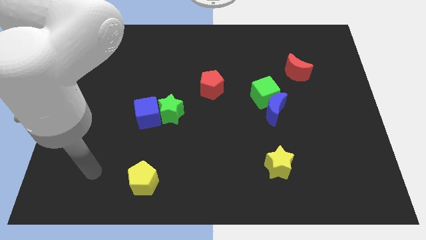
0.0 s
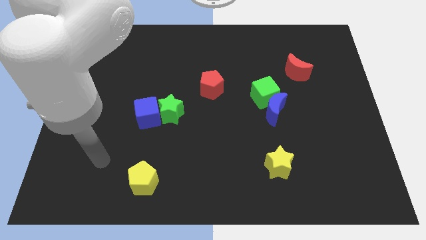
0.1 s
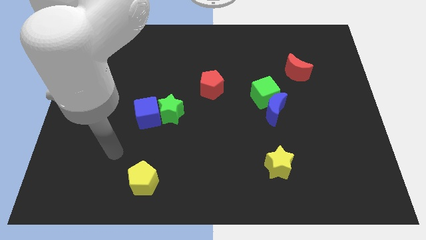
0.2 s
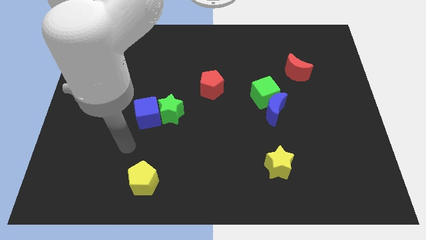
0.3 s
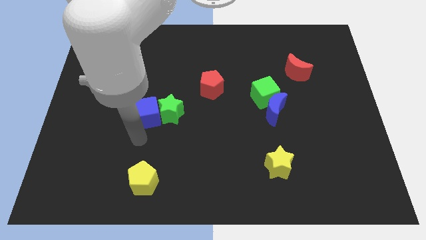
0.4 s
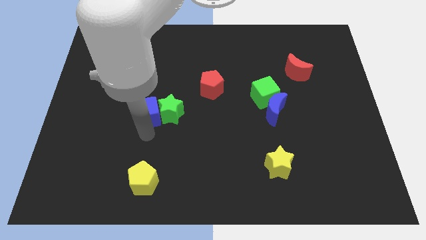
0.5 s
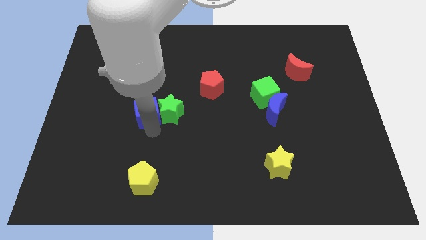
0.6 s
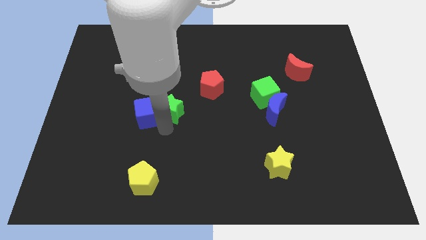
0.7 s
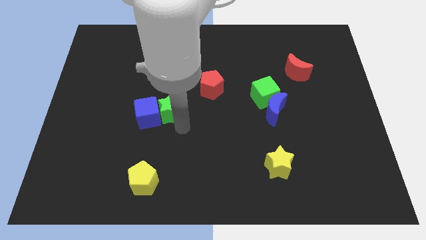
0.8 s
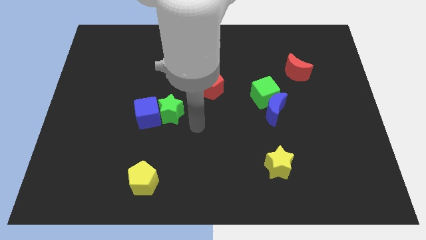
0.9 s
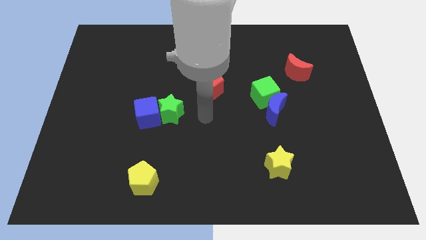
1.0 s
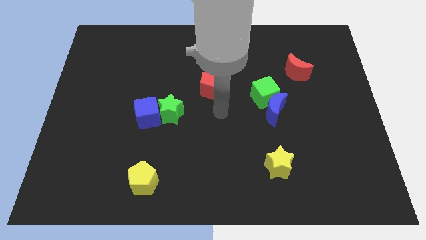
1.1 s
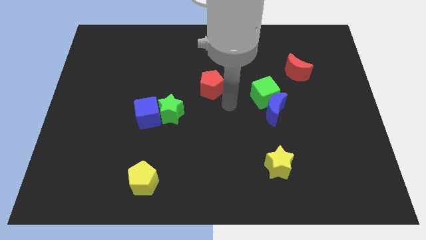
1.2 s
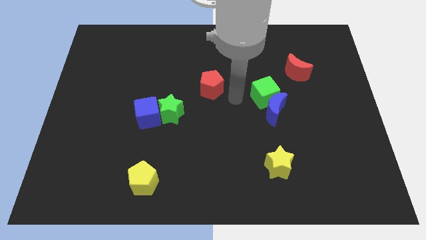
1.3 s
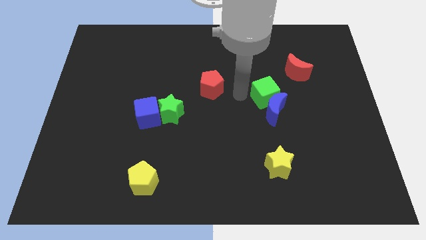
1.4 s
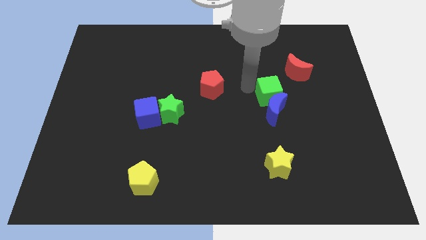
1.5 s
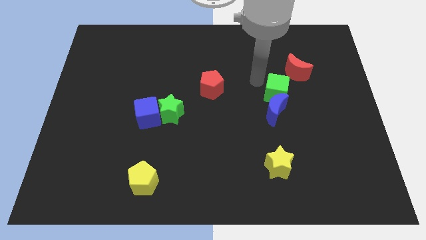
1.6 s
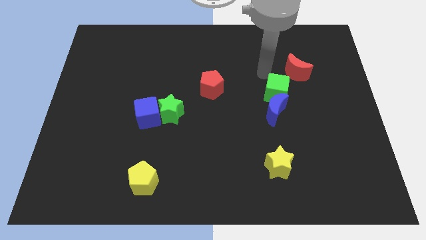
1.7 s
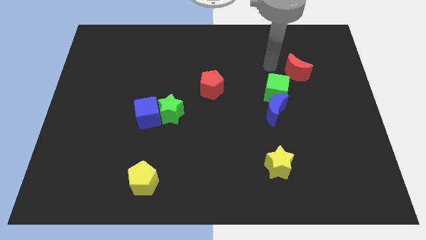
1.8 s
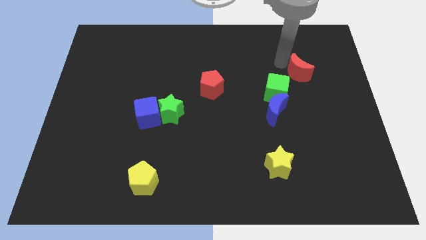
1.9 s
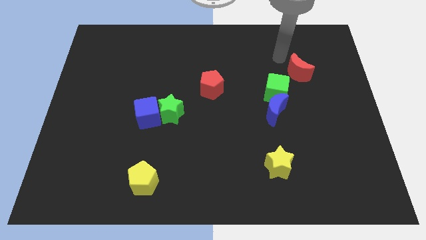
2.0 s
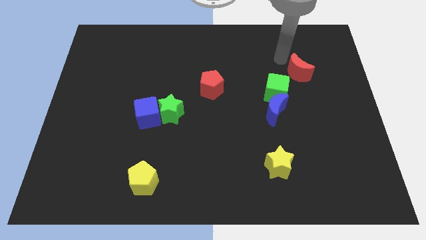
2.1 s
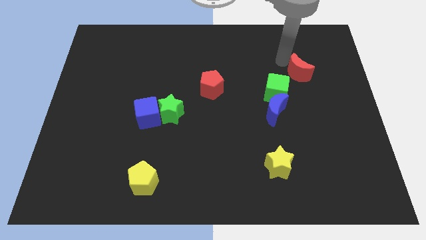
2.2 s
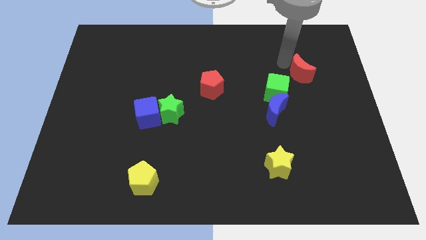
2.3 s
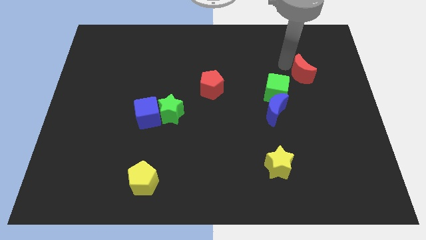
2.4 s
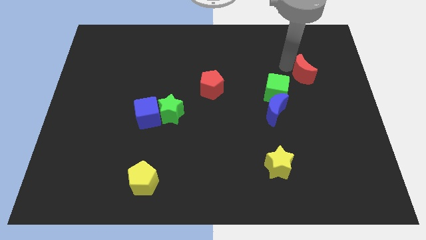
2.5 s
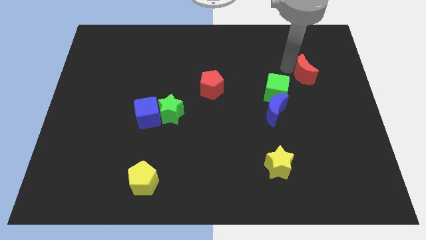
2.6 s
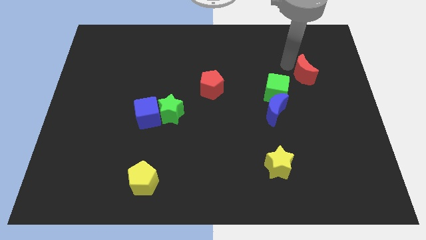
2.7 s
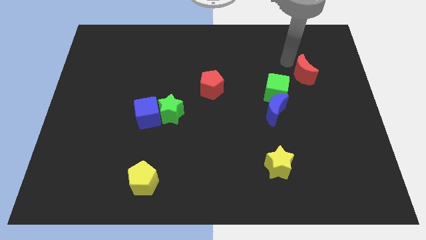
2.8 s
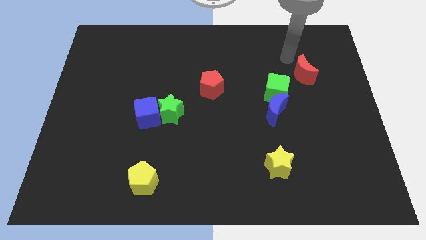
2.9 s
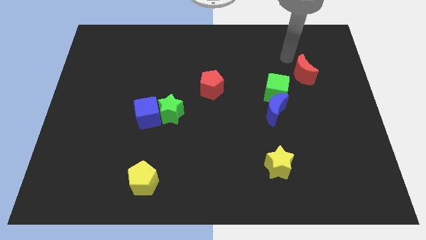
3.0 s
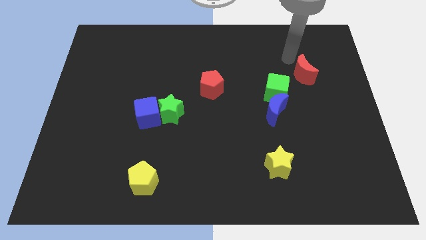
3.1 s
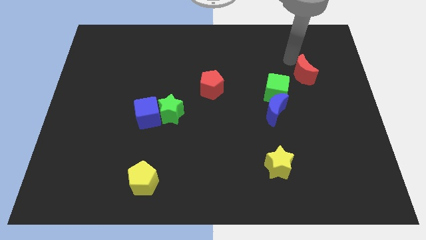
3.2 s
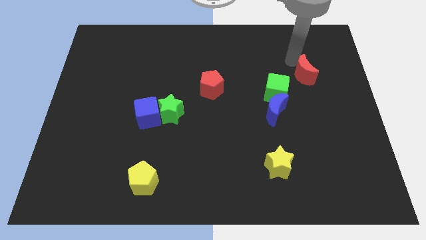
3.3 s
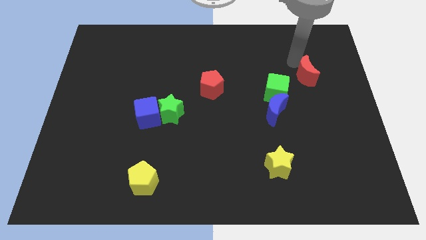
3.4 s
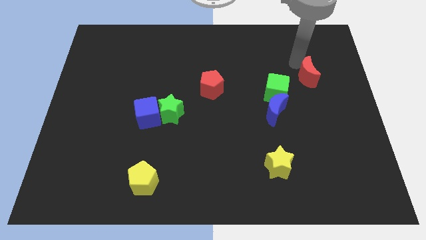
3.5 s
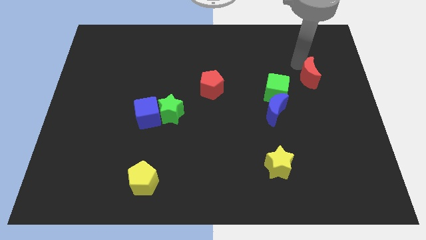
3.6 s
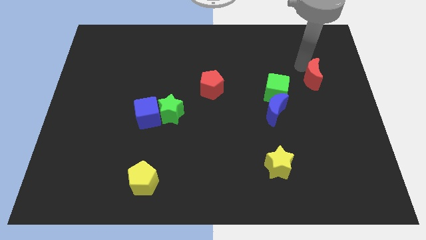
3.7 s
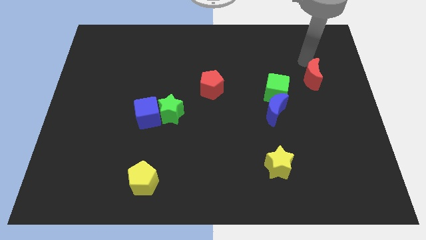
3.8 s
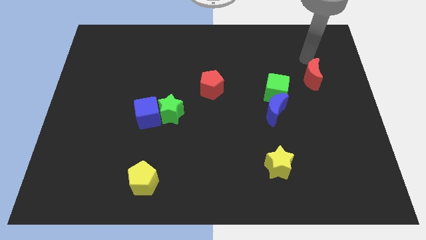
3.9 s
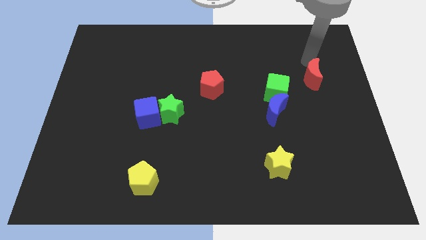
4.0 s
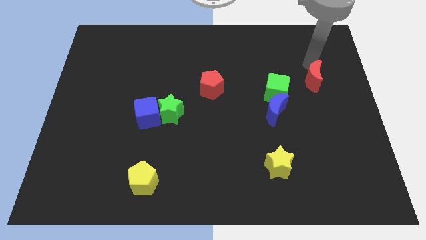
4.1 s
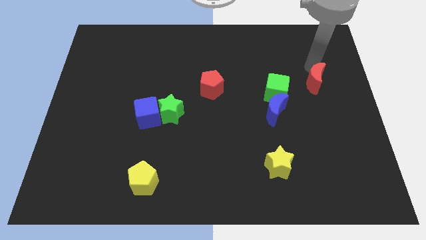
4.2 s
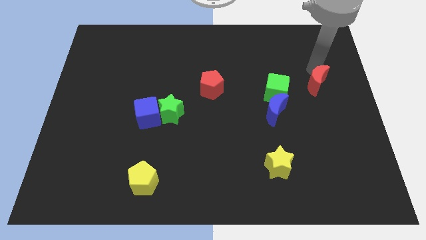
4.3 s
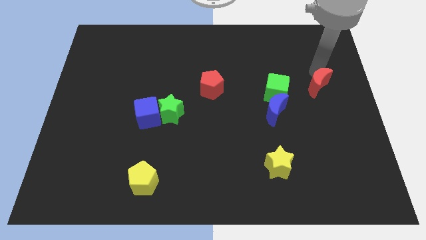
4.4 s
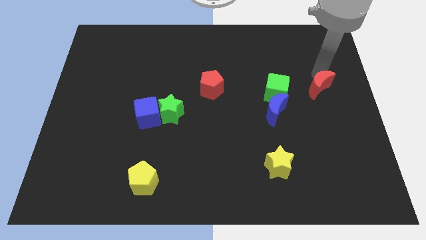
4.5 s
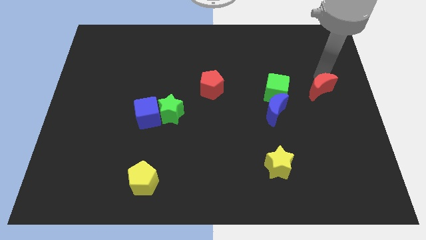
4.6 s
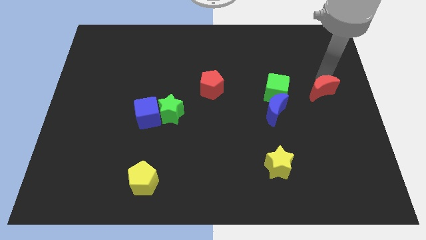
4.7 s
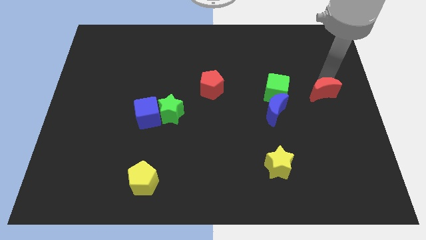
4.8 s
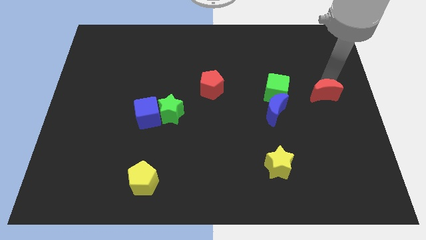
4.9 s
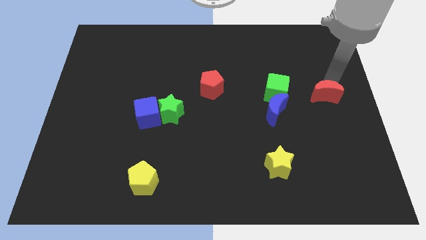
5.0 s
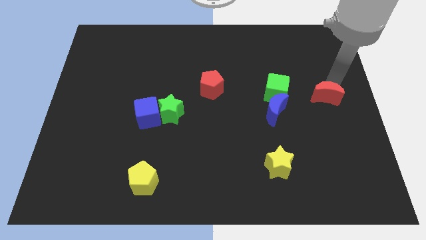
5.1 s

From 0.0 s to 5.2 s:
push the red moon just right of the blue moon

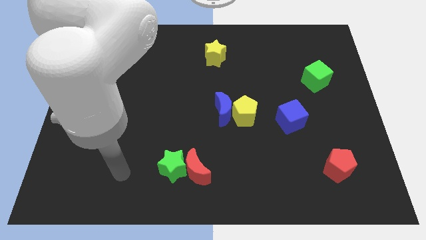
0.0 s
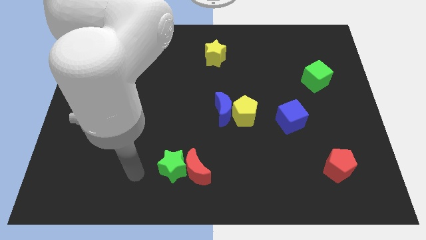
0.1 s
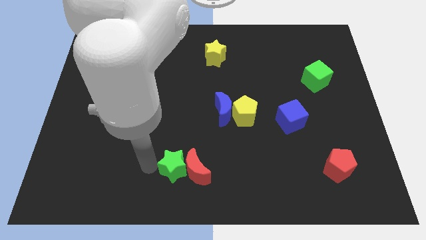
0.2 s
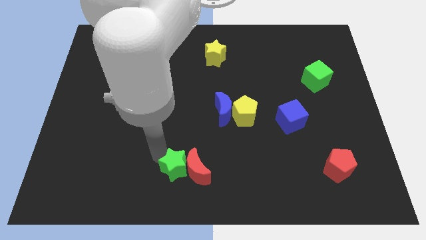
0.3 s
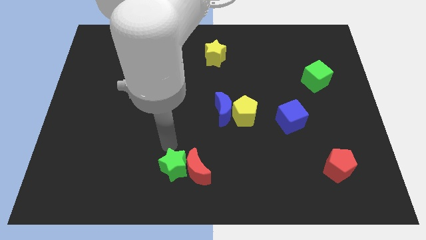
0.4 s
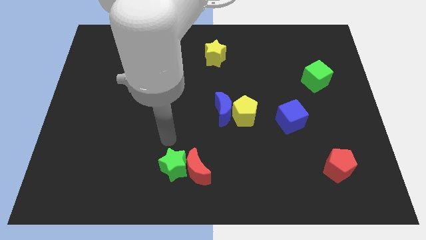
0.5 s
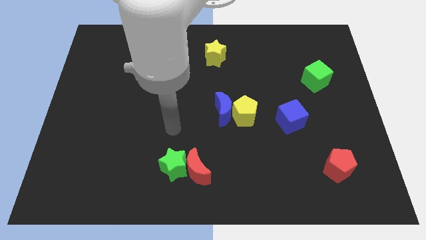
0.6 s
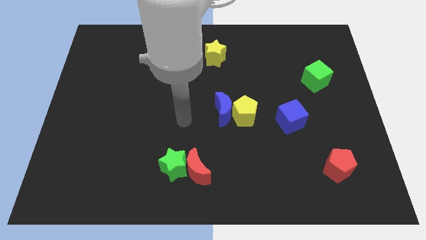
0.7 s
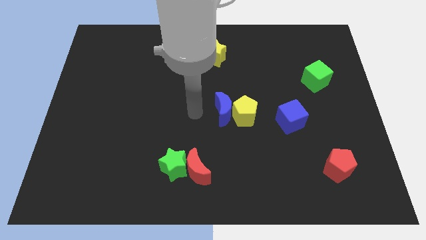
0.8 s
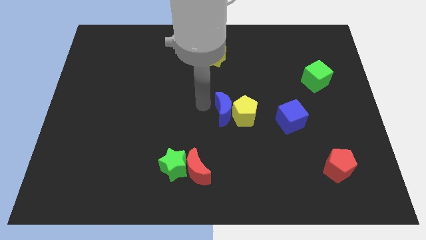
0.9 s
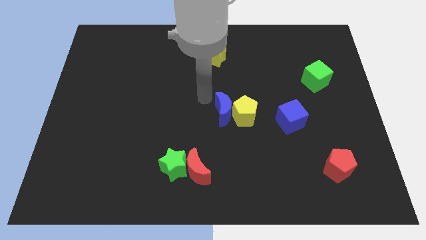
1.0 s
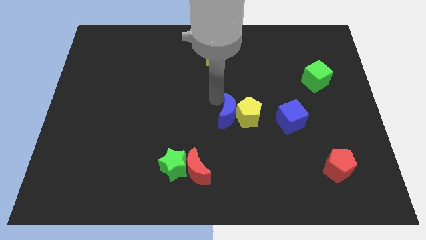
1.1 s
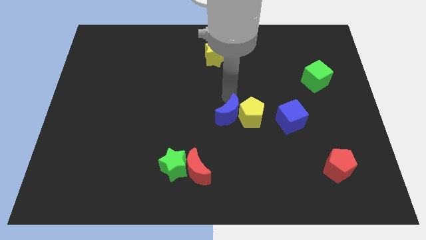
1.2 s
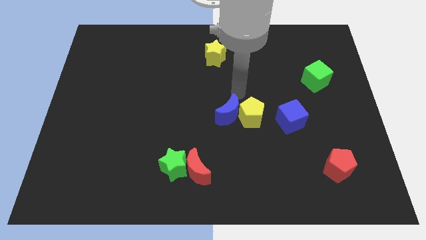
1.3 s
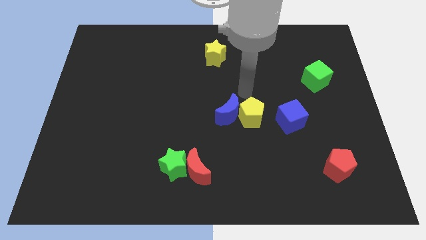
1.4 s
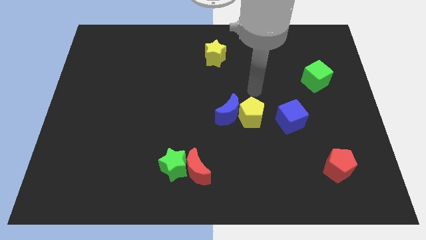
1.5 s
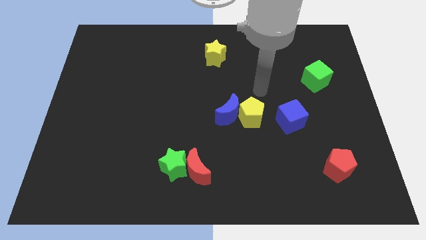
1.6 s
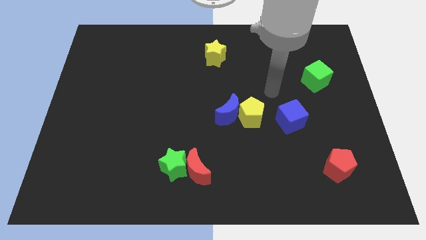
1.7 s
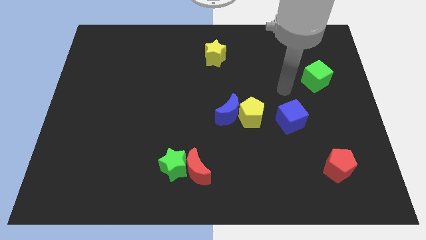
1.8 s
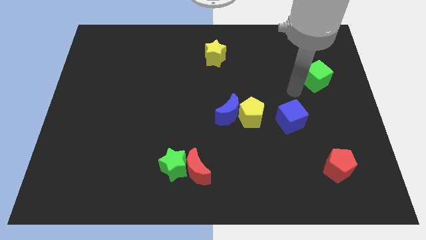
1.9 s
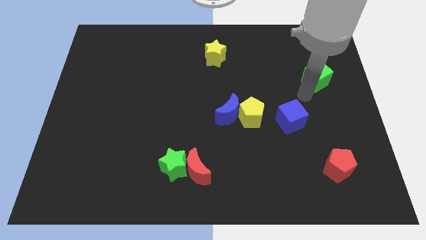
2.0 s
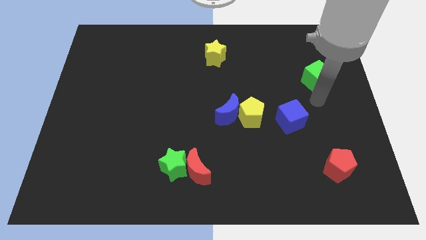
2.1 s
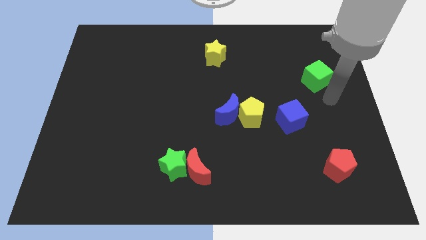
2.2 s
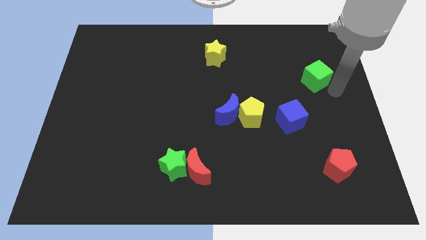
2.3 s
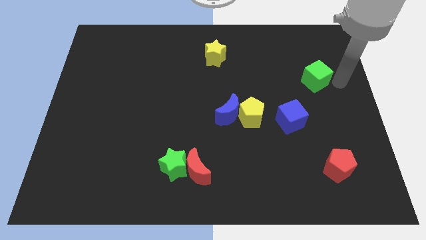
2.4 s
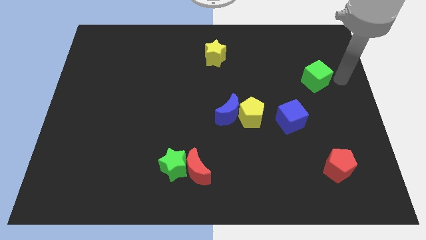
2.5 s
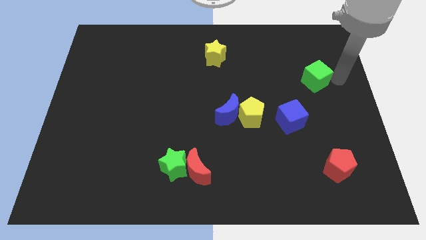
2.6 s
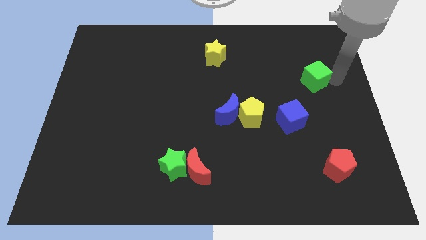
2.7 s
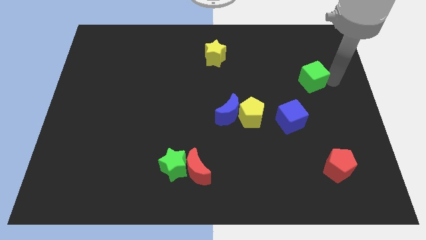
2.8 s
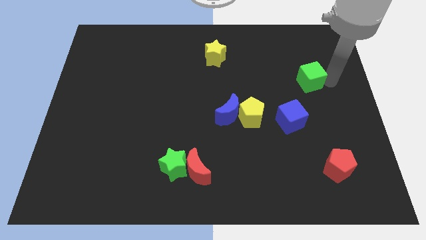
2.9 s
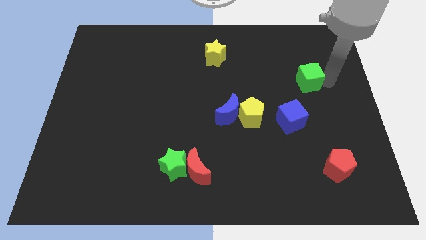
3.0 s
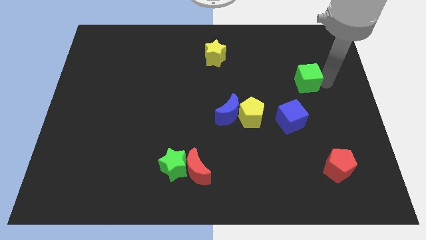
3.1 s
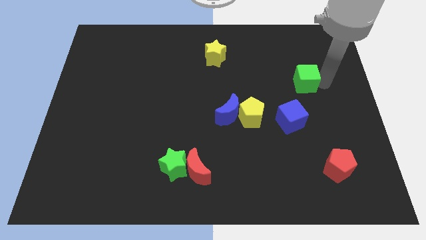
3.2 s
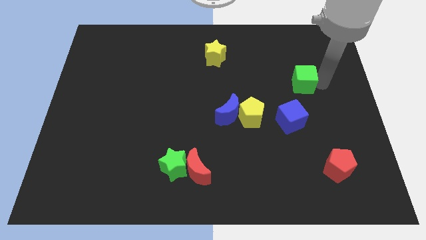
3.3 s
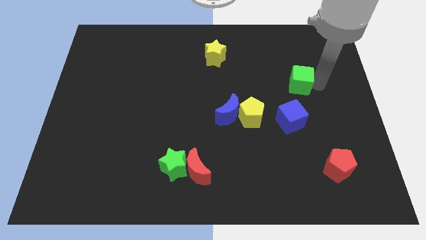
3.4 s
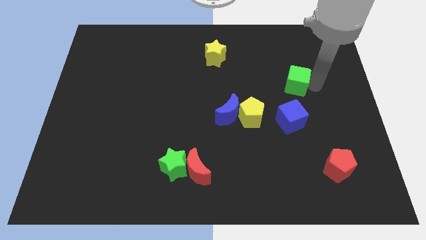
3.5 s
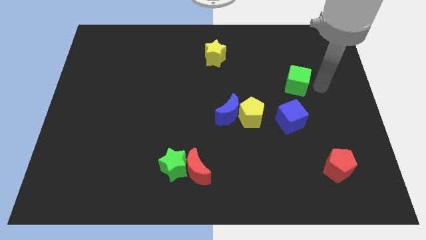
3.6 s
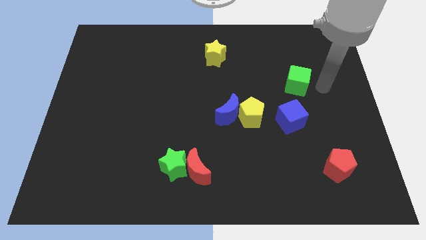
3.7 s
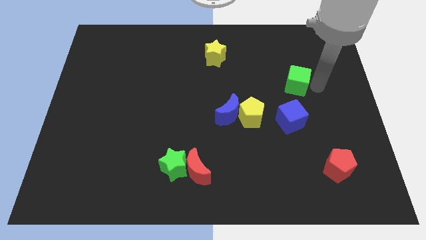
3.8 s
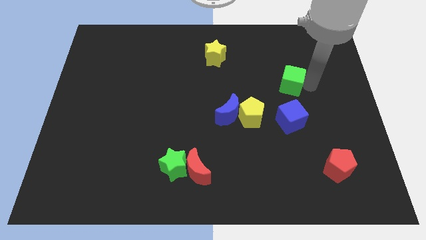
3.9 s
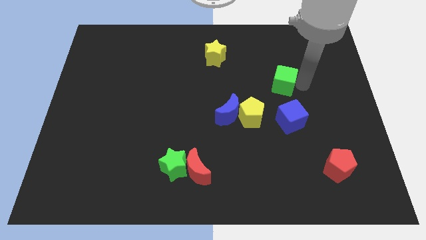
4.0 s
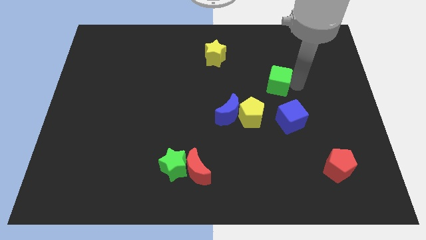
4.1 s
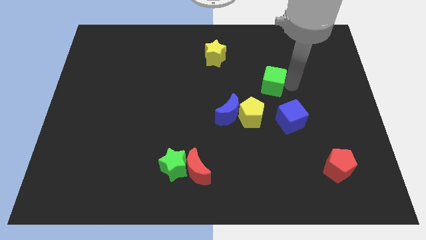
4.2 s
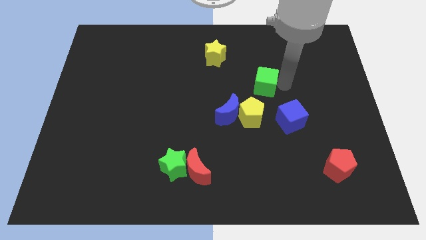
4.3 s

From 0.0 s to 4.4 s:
move the green cube to the top of the yellow pentagon
